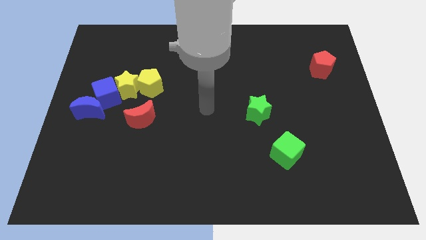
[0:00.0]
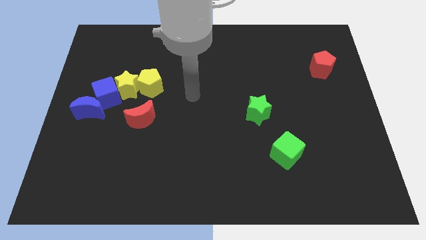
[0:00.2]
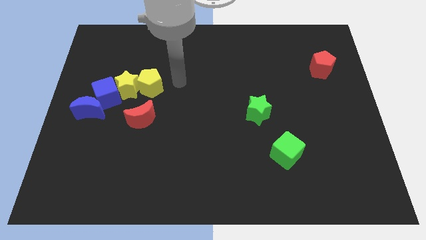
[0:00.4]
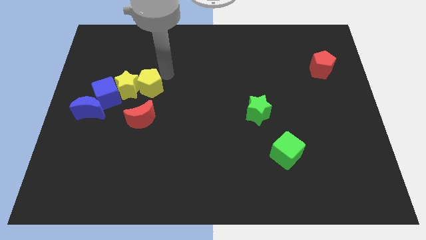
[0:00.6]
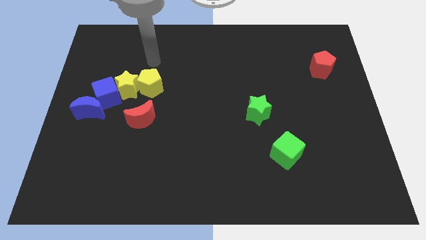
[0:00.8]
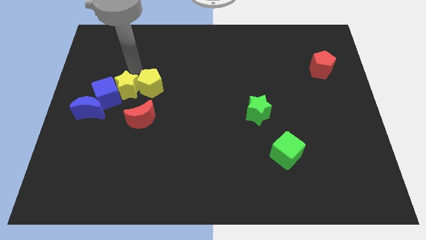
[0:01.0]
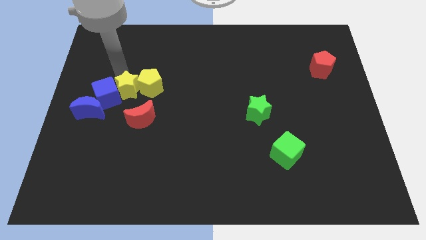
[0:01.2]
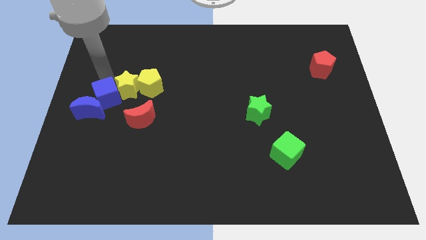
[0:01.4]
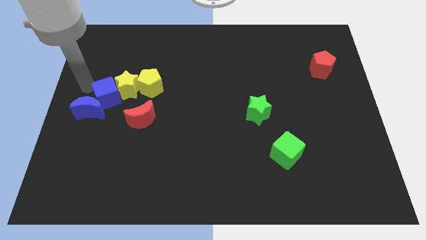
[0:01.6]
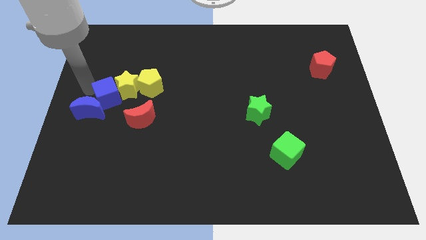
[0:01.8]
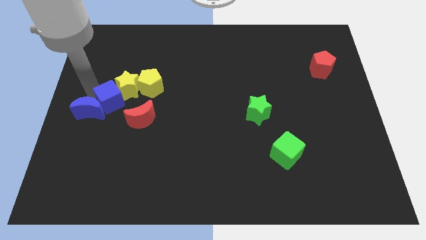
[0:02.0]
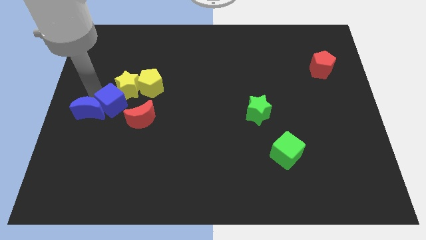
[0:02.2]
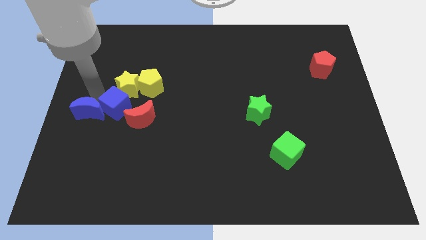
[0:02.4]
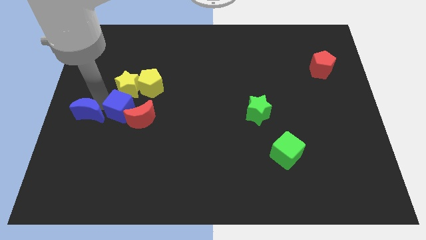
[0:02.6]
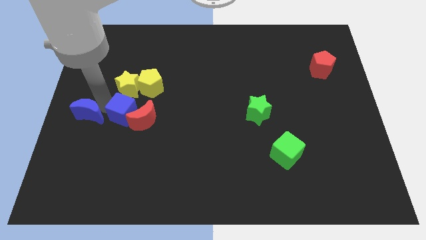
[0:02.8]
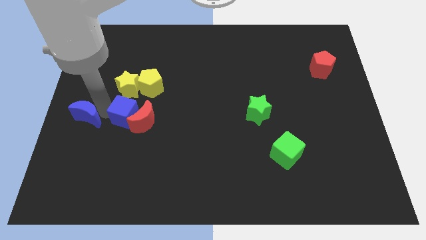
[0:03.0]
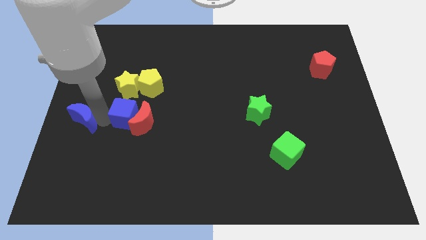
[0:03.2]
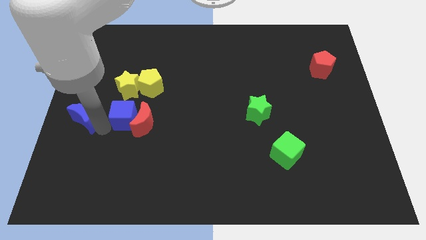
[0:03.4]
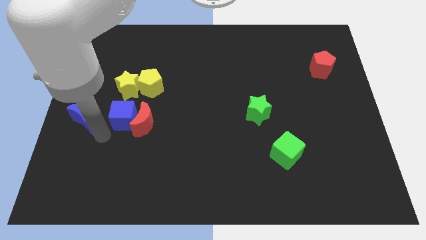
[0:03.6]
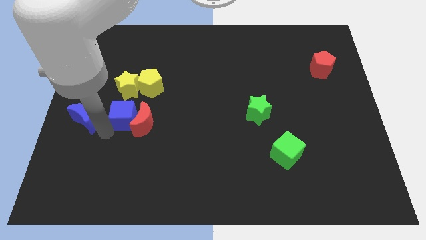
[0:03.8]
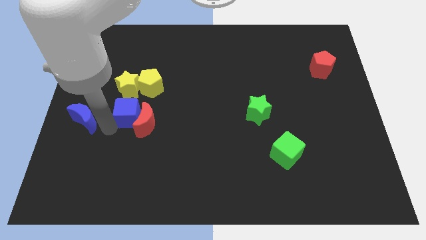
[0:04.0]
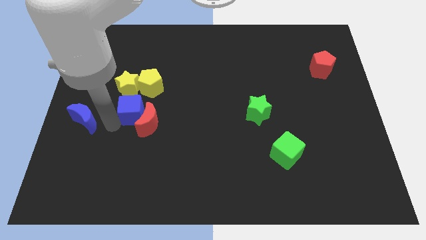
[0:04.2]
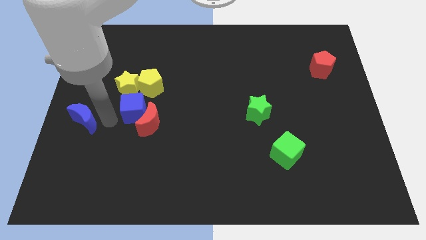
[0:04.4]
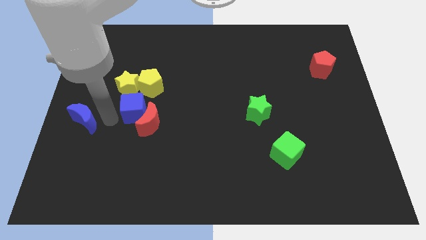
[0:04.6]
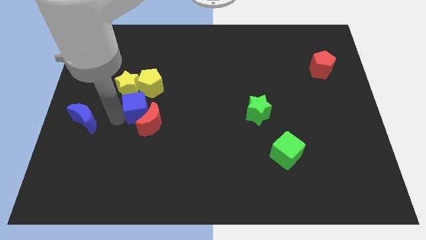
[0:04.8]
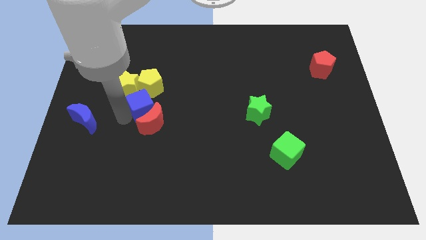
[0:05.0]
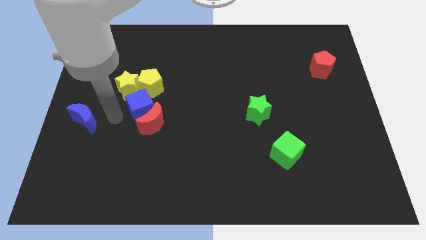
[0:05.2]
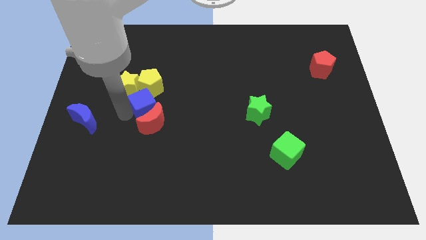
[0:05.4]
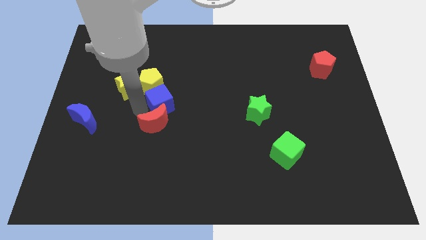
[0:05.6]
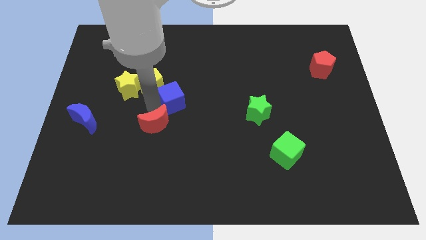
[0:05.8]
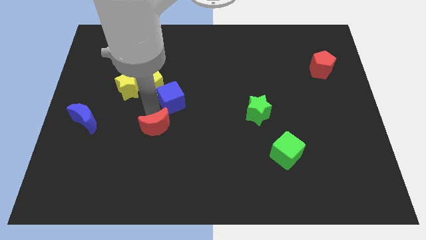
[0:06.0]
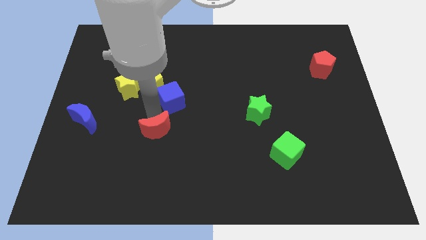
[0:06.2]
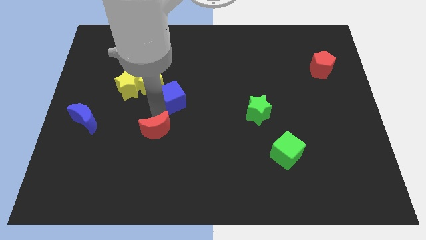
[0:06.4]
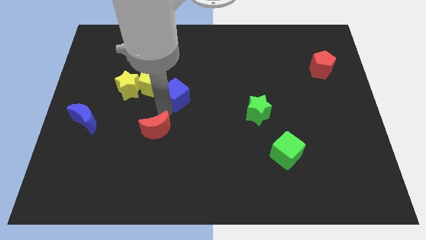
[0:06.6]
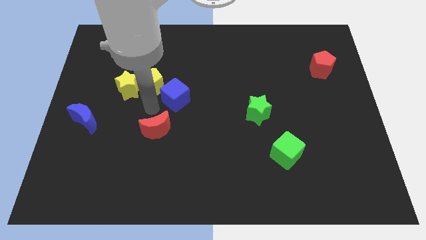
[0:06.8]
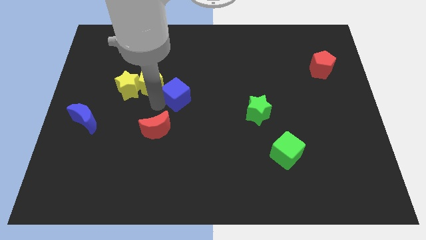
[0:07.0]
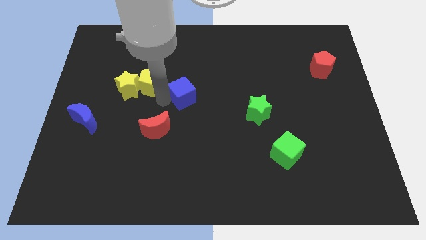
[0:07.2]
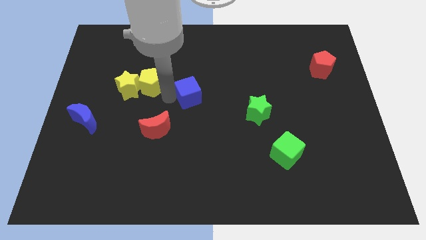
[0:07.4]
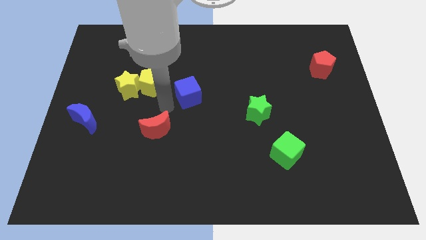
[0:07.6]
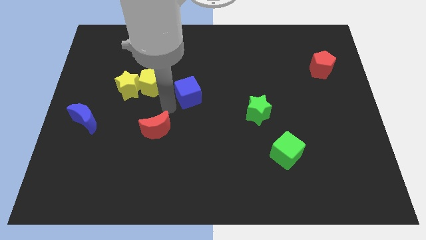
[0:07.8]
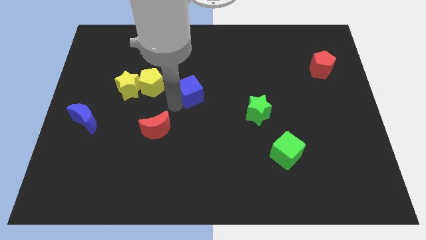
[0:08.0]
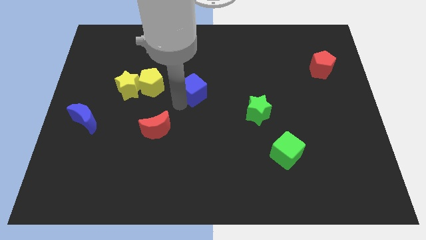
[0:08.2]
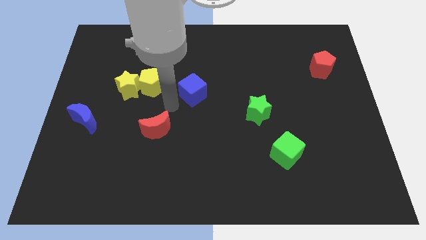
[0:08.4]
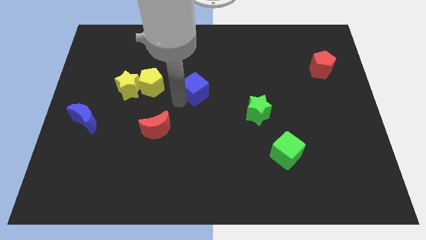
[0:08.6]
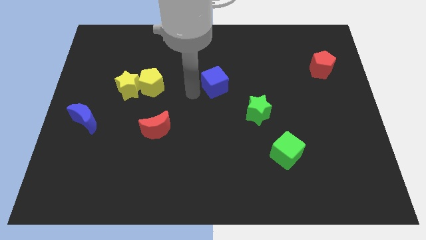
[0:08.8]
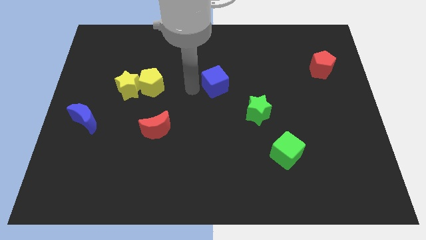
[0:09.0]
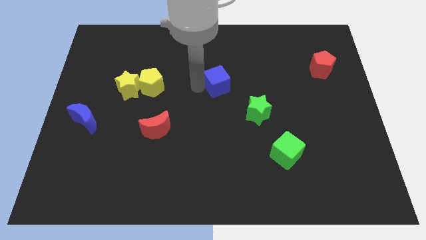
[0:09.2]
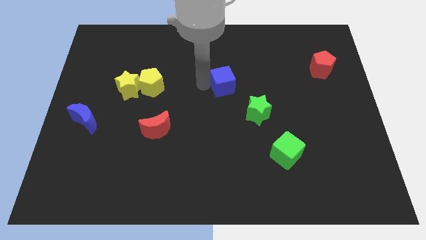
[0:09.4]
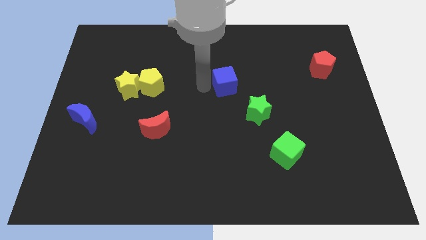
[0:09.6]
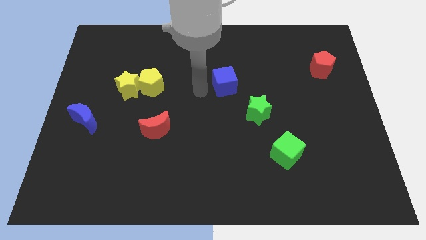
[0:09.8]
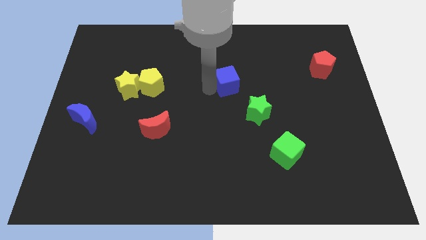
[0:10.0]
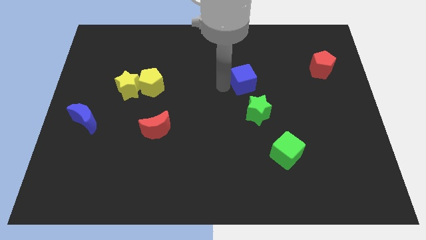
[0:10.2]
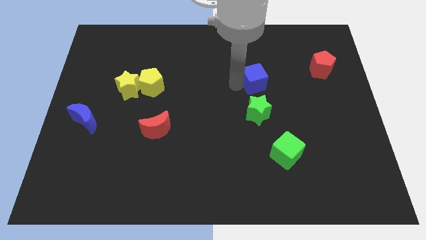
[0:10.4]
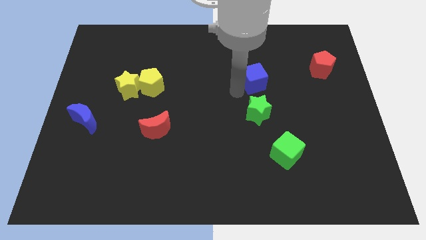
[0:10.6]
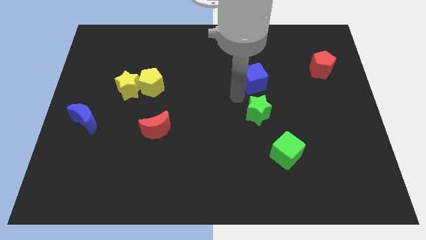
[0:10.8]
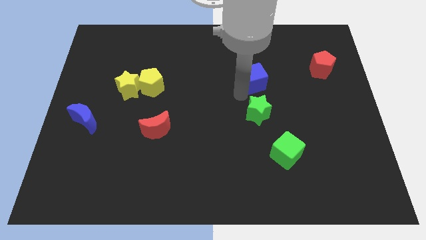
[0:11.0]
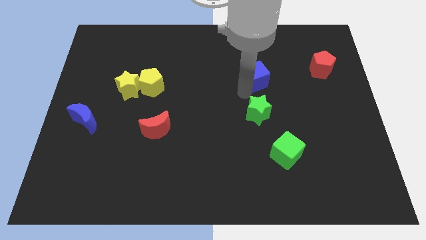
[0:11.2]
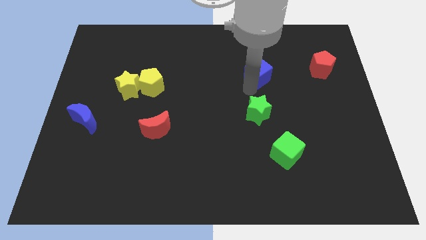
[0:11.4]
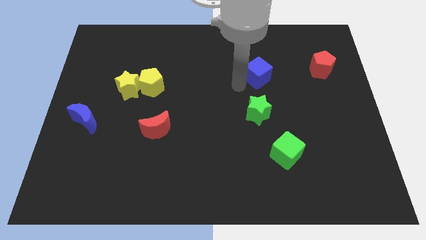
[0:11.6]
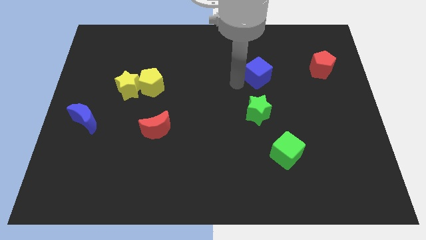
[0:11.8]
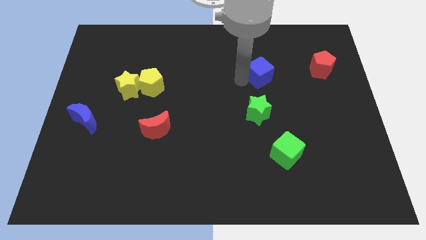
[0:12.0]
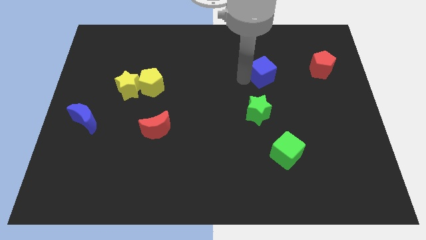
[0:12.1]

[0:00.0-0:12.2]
move the blue cube left of the red pentagon
